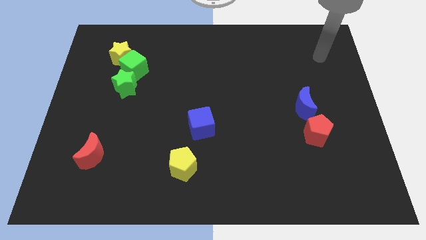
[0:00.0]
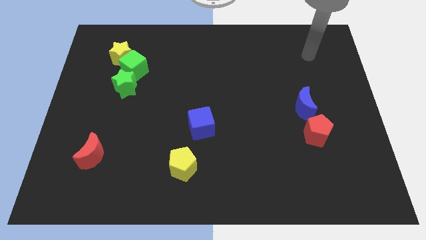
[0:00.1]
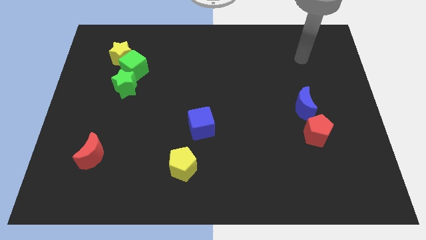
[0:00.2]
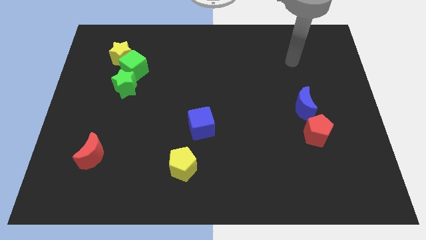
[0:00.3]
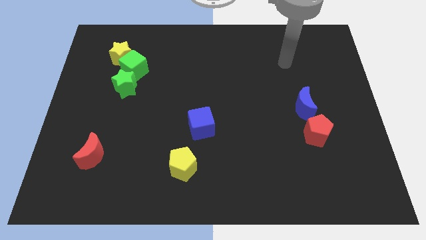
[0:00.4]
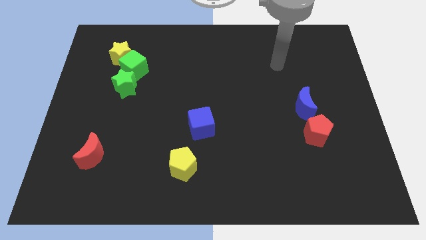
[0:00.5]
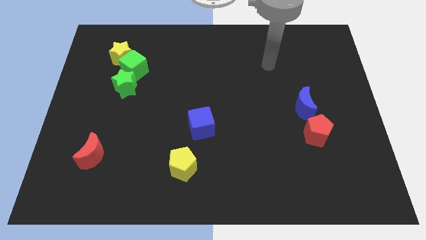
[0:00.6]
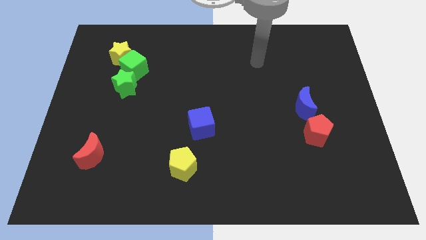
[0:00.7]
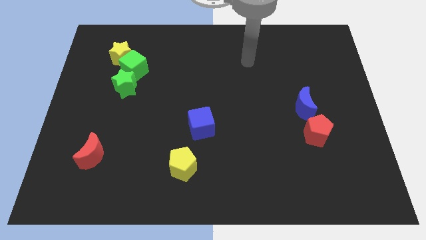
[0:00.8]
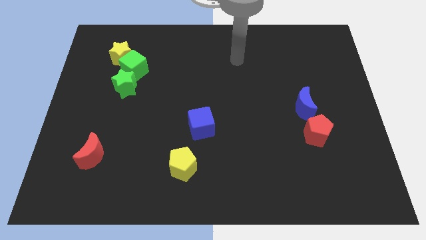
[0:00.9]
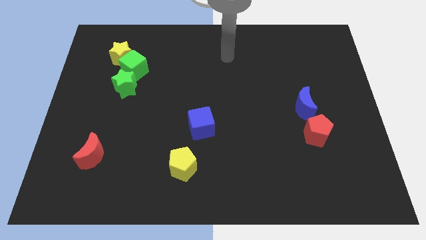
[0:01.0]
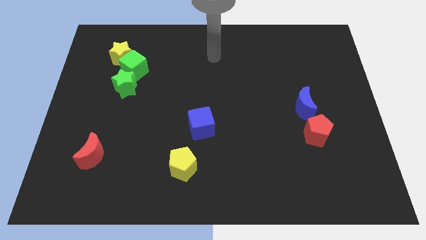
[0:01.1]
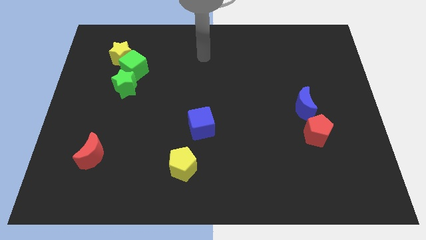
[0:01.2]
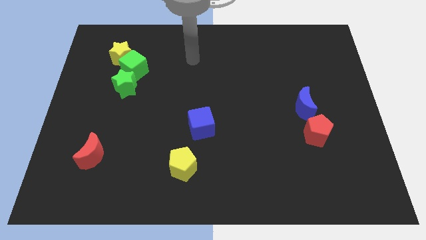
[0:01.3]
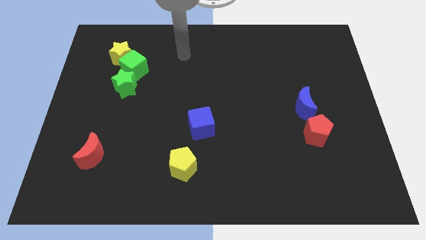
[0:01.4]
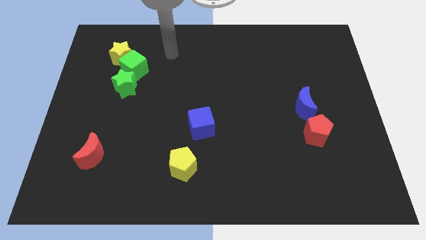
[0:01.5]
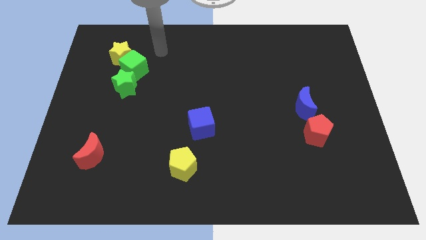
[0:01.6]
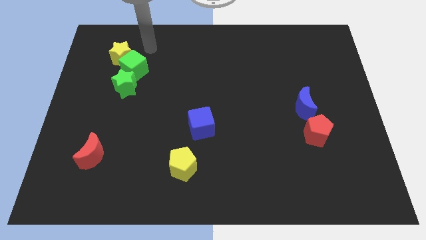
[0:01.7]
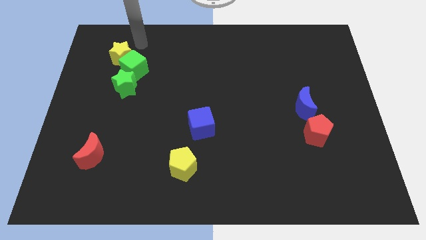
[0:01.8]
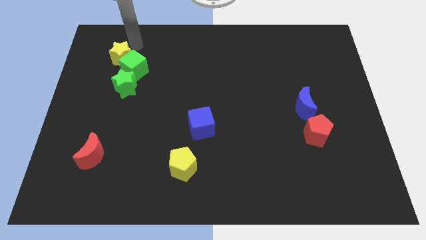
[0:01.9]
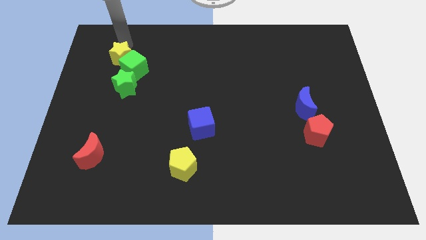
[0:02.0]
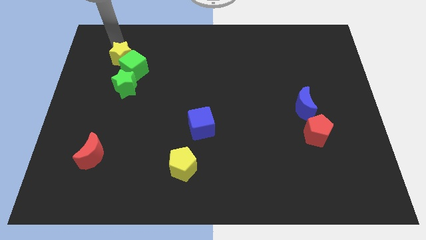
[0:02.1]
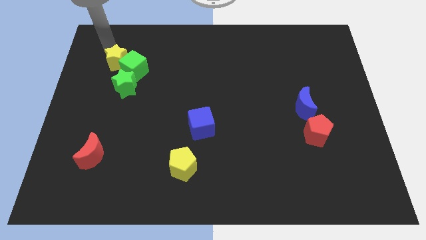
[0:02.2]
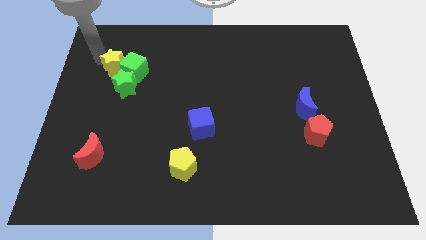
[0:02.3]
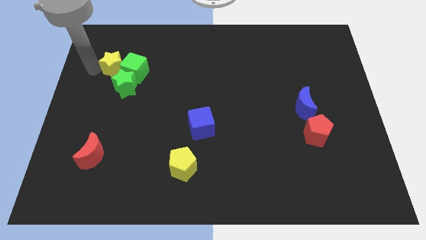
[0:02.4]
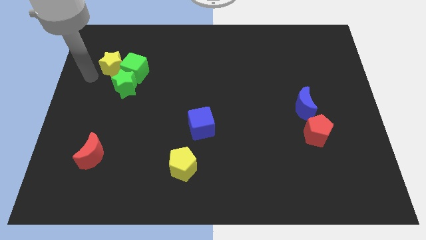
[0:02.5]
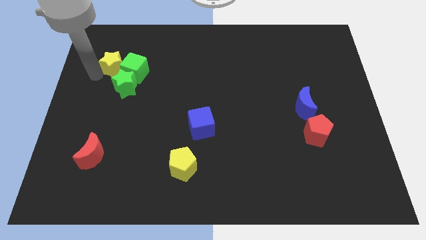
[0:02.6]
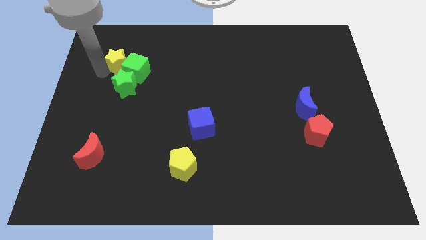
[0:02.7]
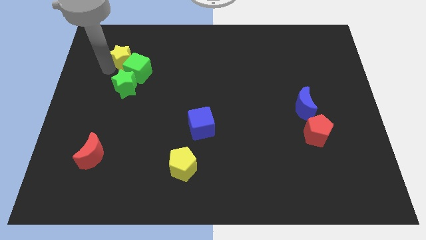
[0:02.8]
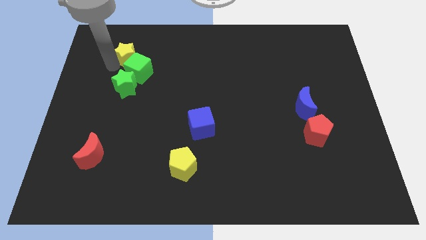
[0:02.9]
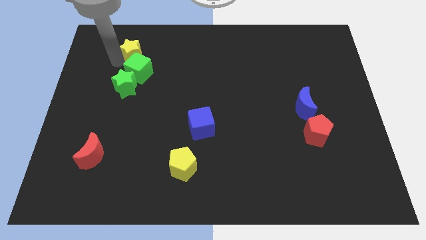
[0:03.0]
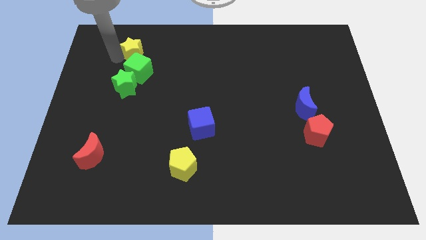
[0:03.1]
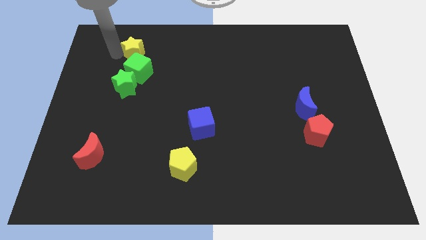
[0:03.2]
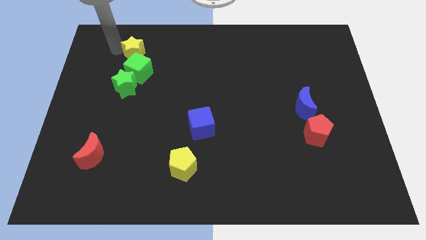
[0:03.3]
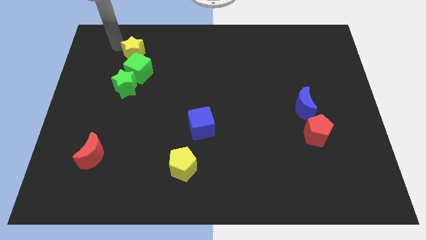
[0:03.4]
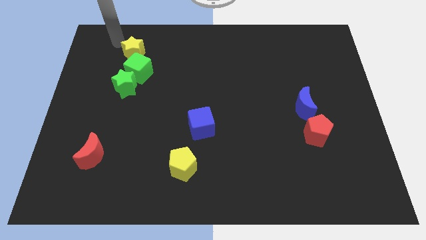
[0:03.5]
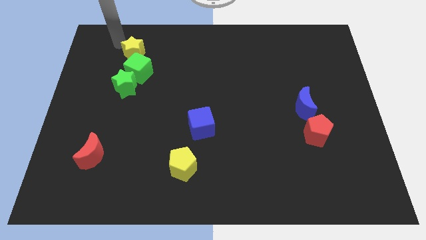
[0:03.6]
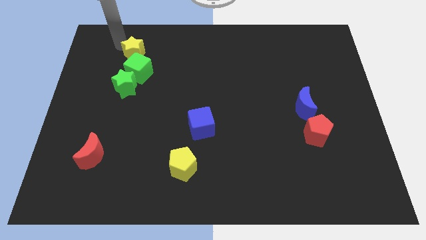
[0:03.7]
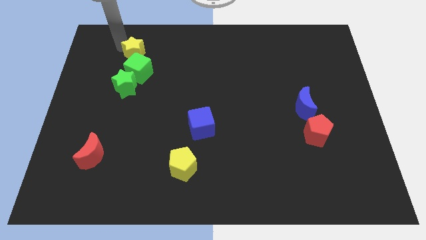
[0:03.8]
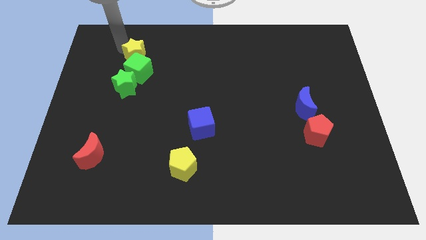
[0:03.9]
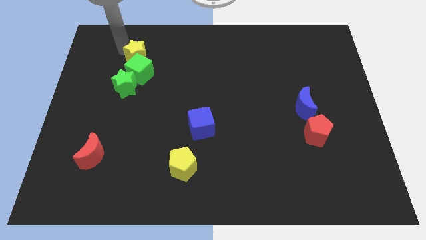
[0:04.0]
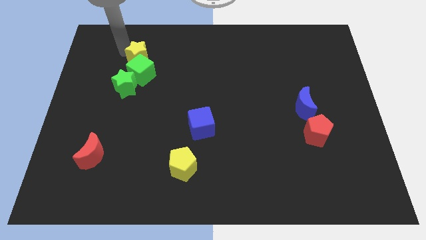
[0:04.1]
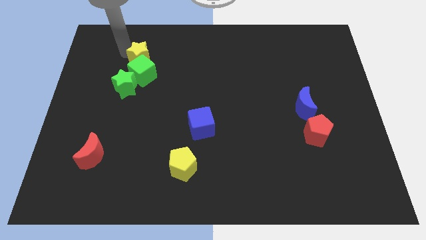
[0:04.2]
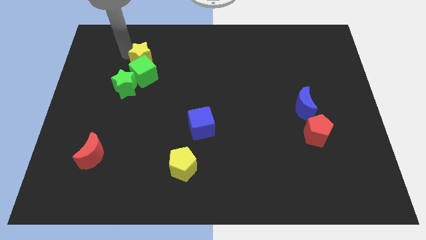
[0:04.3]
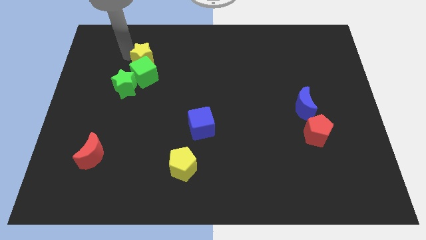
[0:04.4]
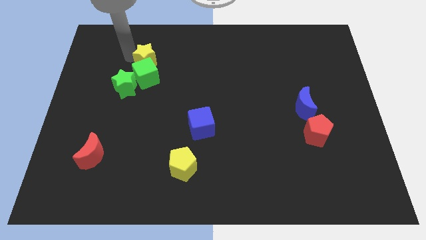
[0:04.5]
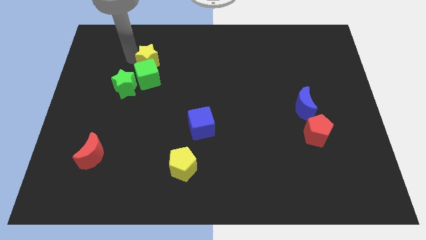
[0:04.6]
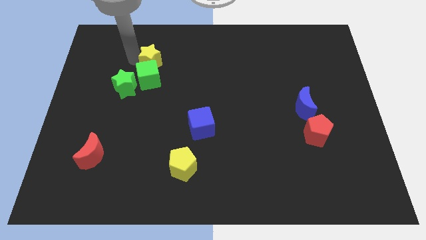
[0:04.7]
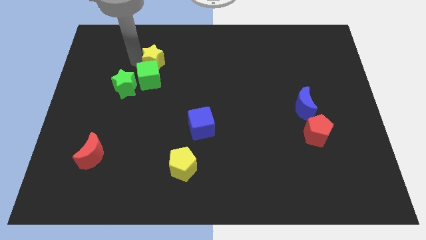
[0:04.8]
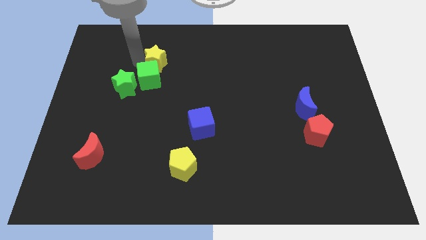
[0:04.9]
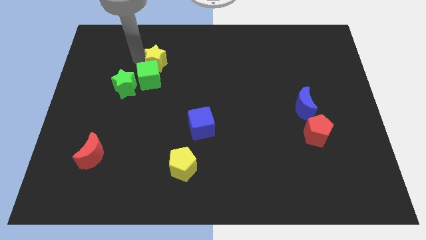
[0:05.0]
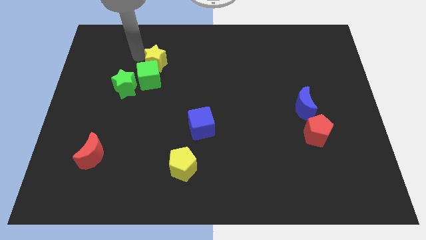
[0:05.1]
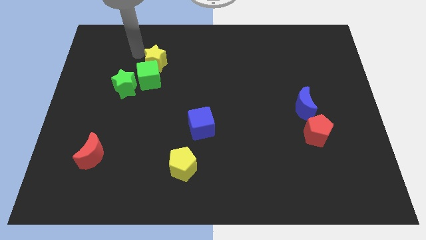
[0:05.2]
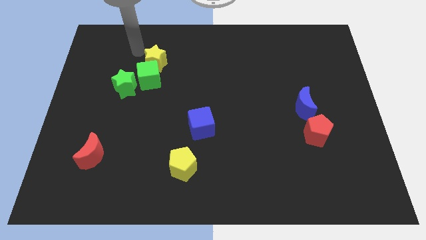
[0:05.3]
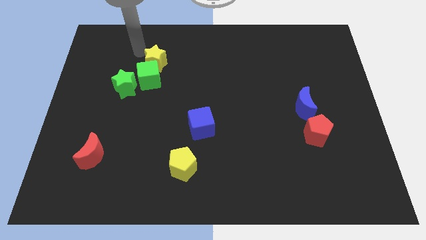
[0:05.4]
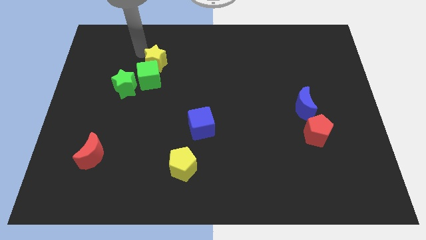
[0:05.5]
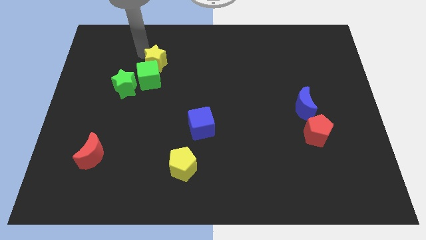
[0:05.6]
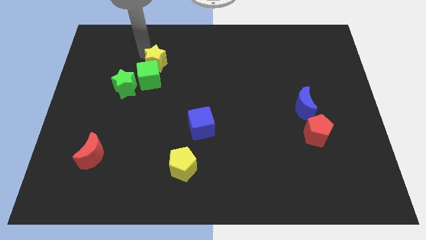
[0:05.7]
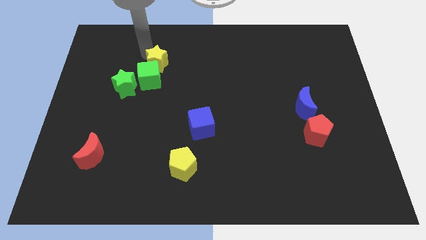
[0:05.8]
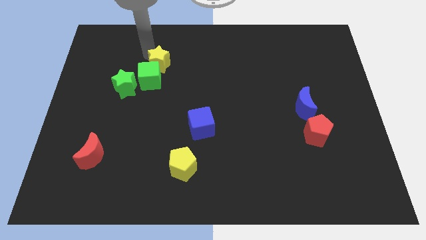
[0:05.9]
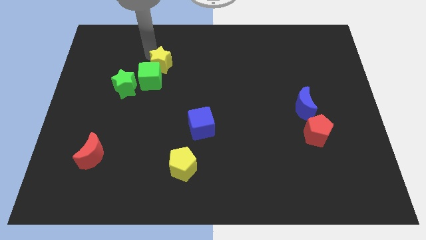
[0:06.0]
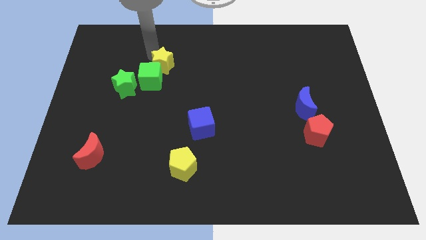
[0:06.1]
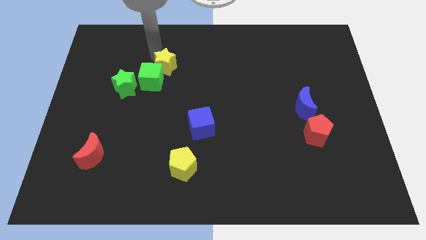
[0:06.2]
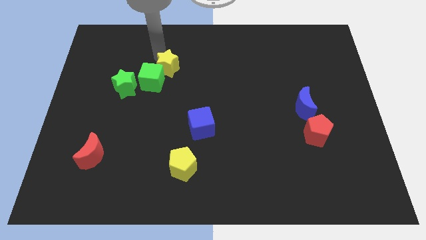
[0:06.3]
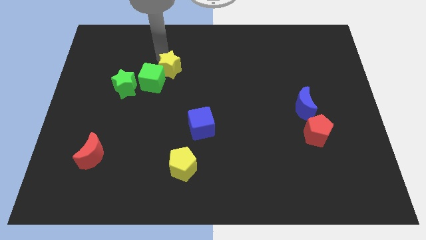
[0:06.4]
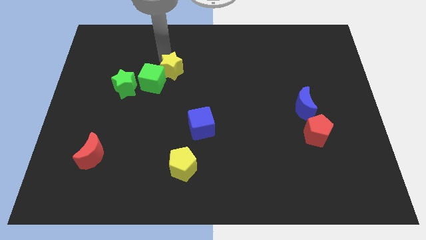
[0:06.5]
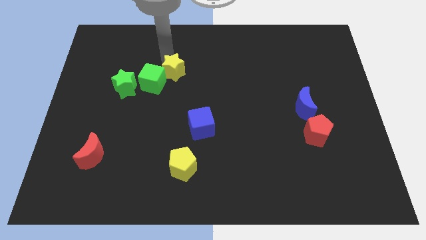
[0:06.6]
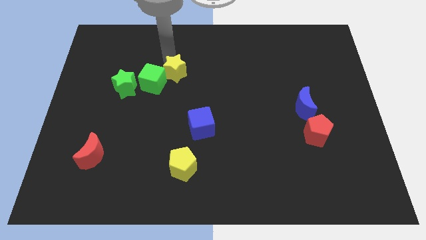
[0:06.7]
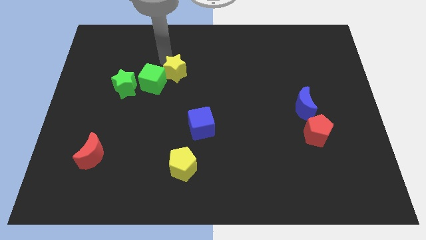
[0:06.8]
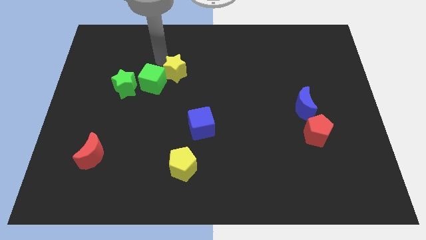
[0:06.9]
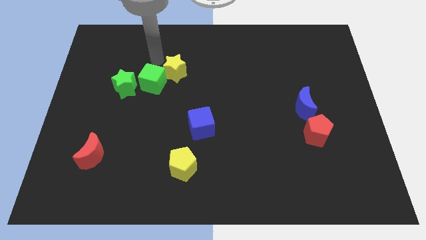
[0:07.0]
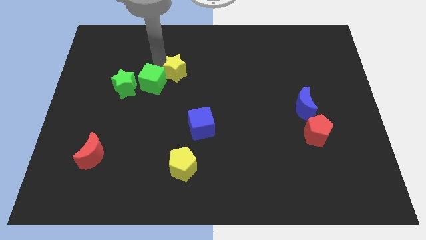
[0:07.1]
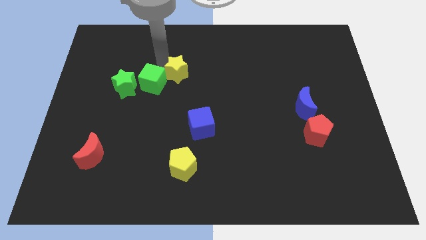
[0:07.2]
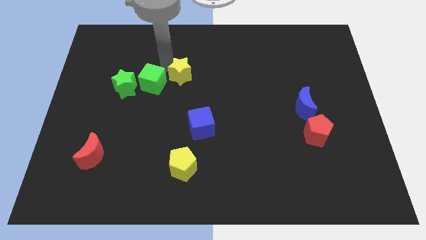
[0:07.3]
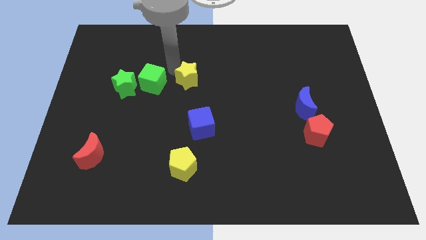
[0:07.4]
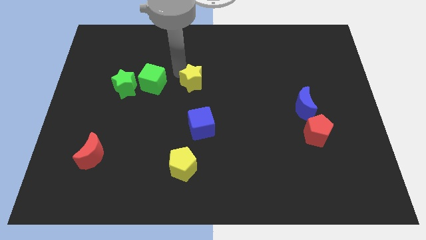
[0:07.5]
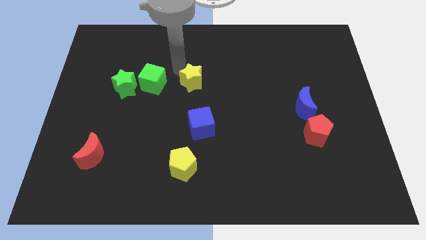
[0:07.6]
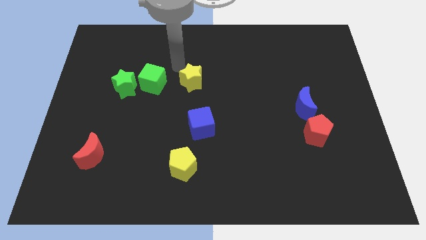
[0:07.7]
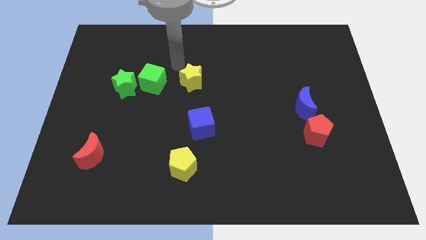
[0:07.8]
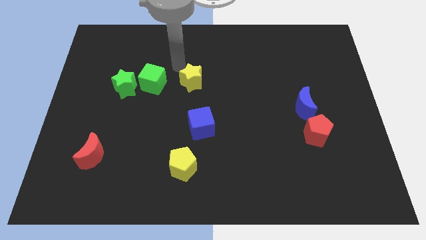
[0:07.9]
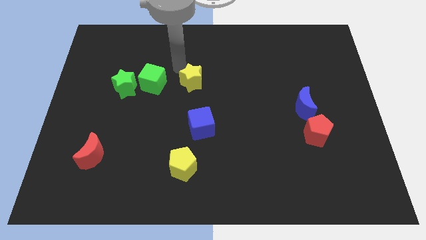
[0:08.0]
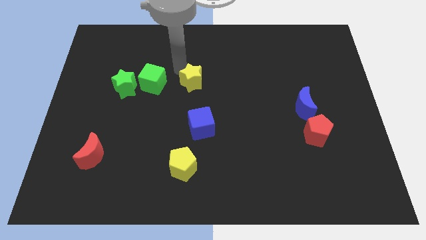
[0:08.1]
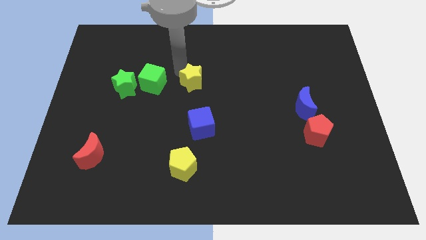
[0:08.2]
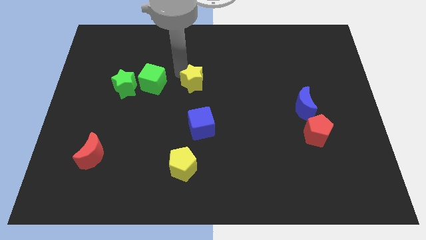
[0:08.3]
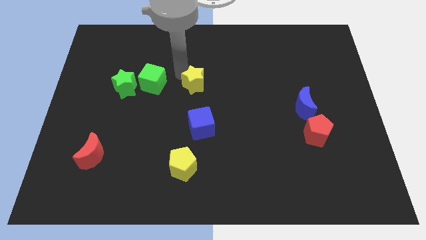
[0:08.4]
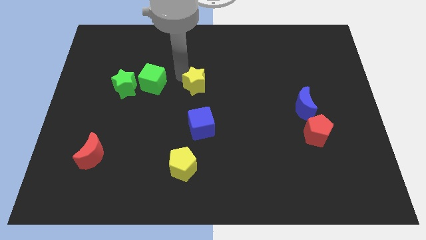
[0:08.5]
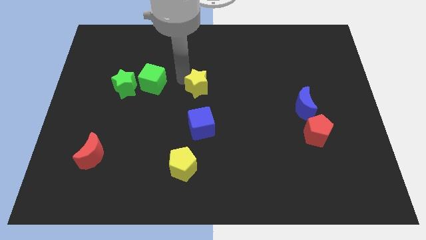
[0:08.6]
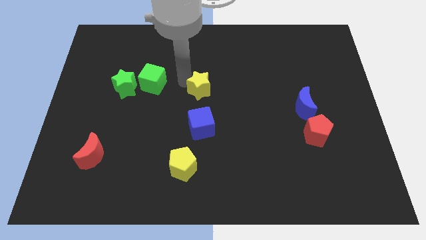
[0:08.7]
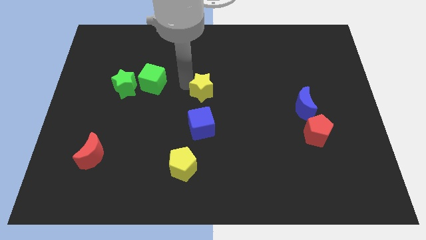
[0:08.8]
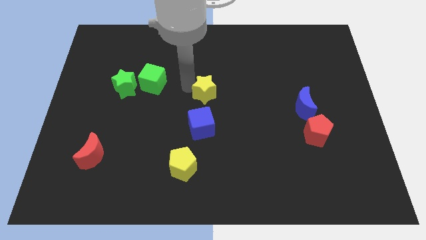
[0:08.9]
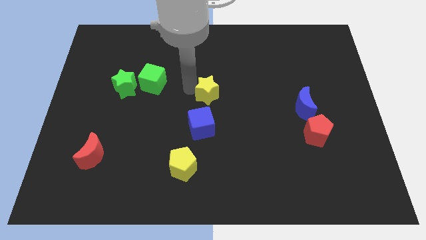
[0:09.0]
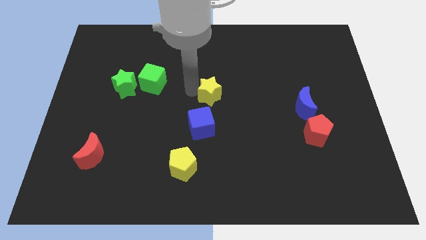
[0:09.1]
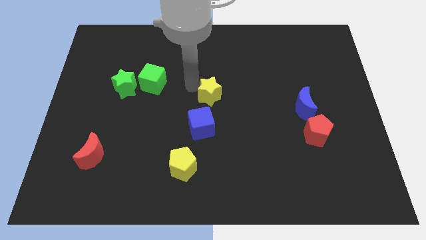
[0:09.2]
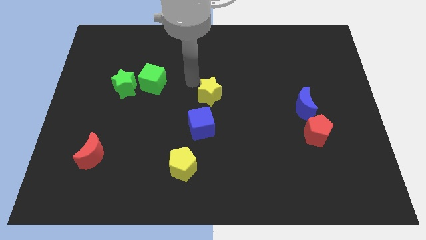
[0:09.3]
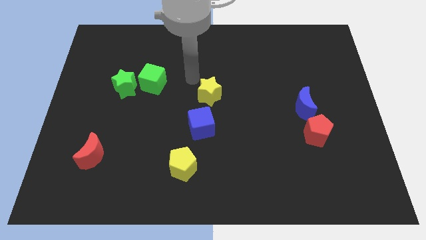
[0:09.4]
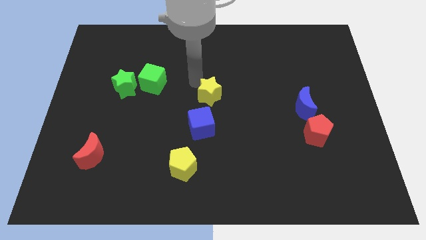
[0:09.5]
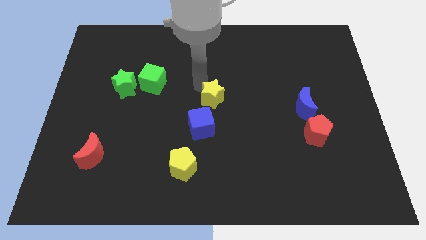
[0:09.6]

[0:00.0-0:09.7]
push the yellow star diagonally up and to the right of the blue cube
